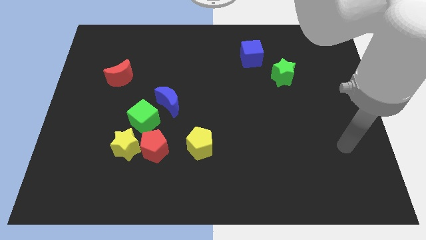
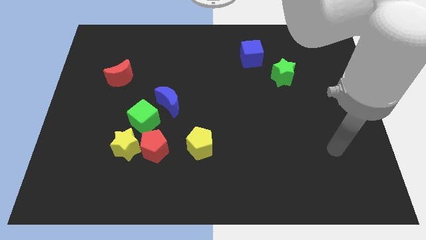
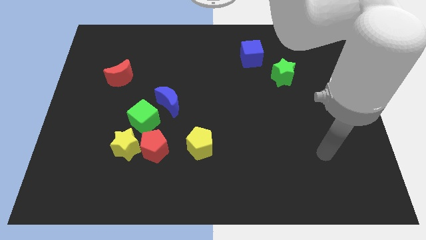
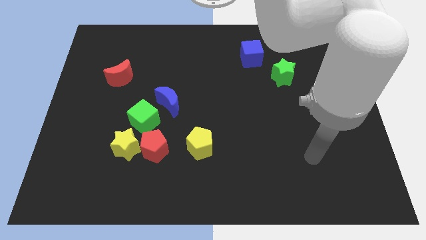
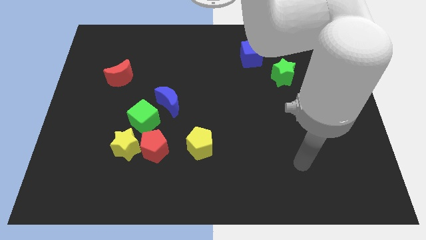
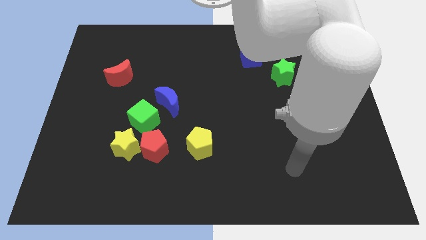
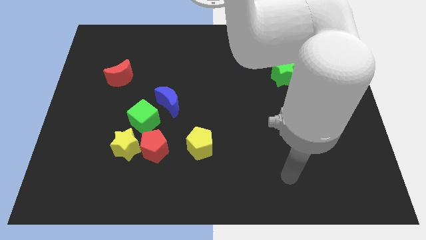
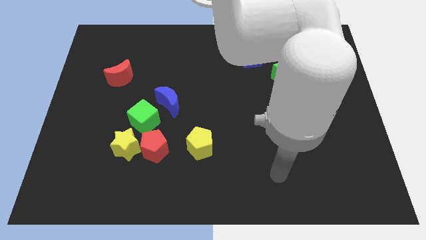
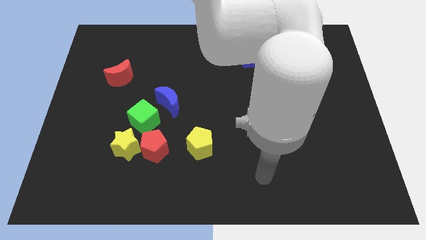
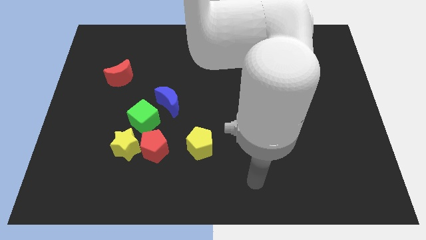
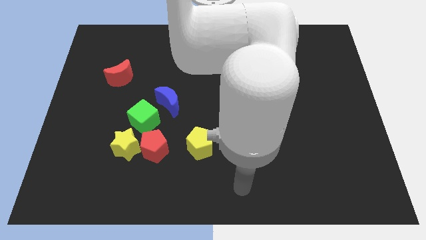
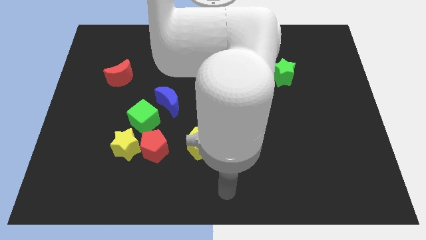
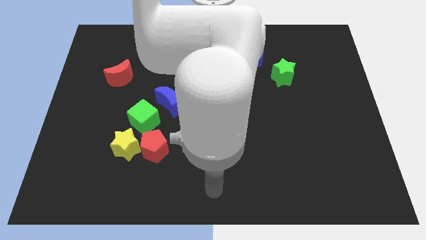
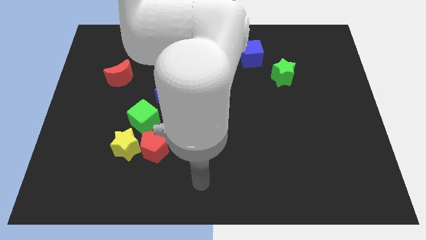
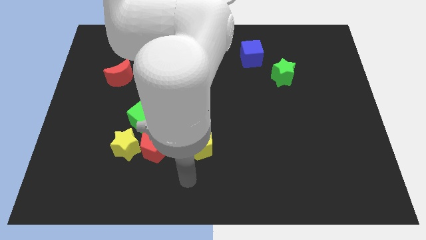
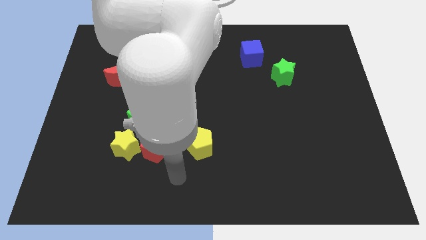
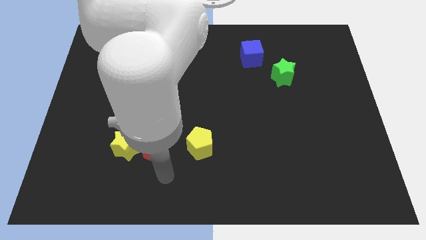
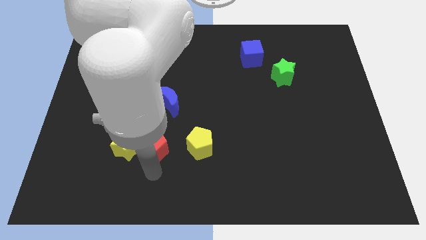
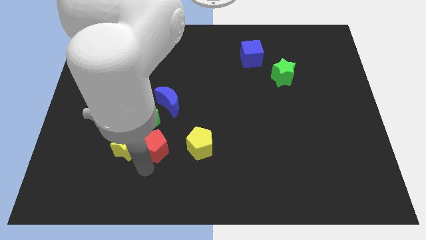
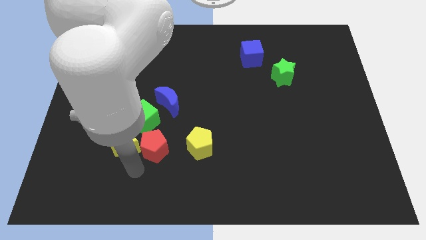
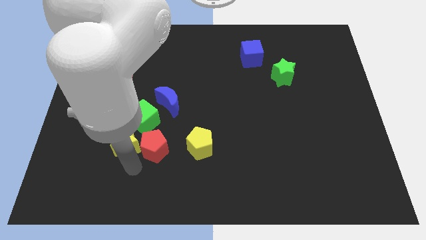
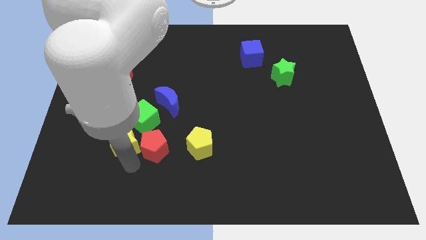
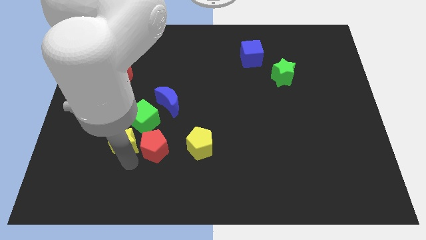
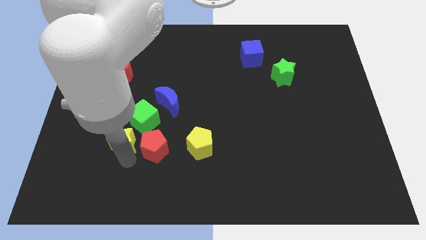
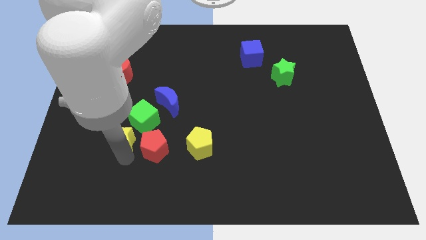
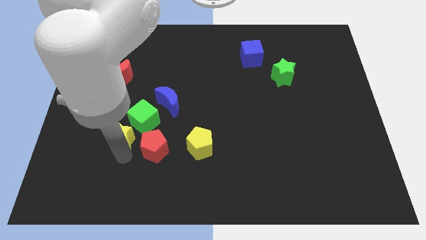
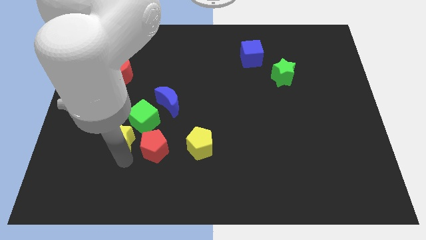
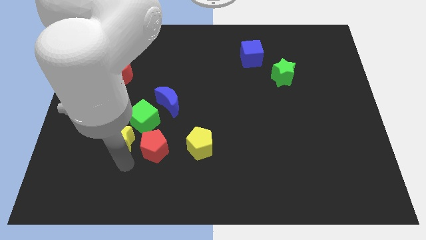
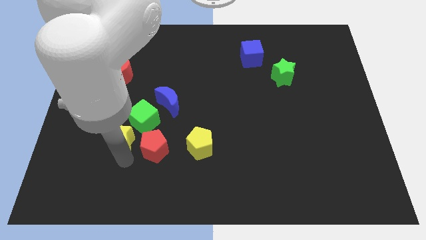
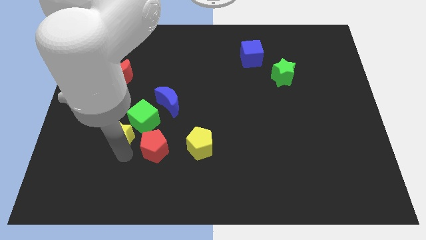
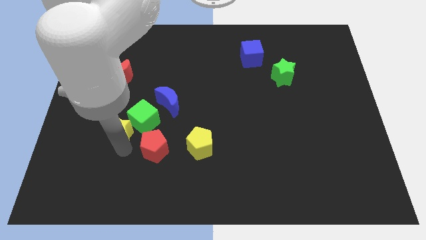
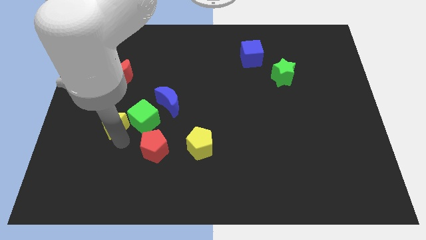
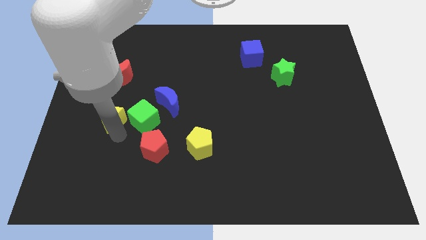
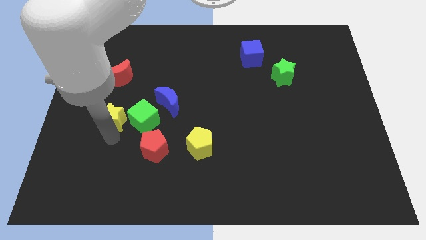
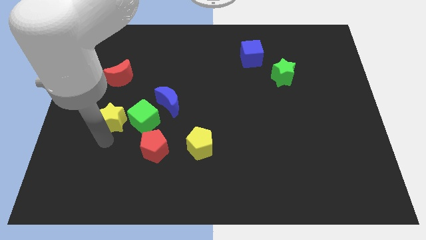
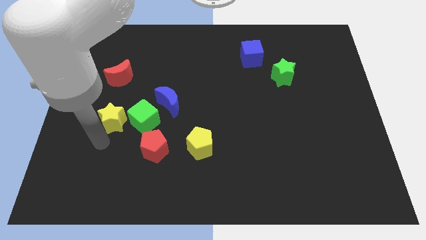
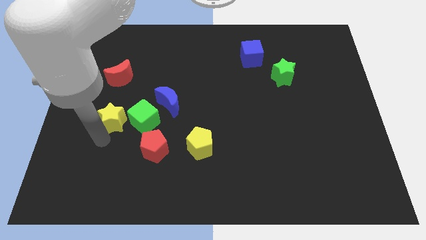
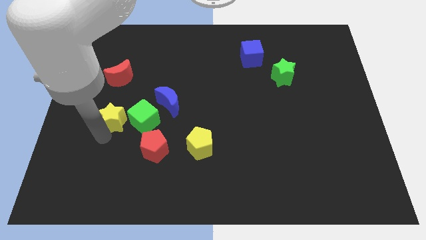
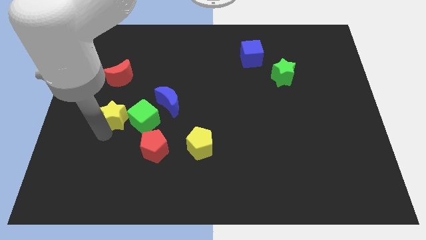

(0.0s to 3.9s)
push the yellow star slightly up

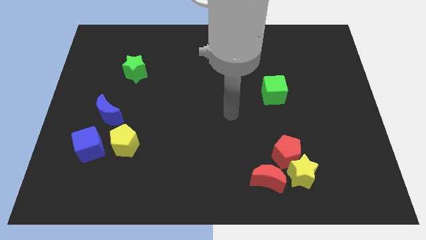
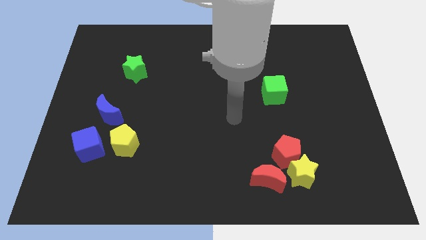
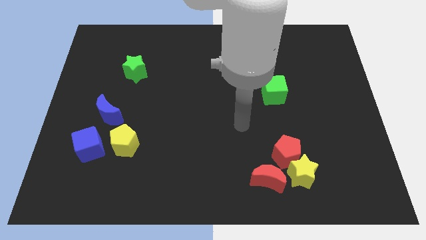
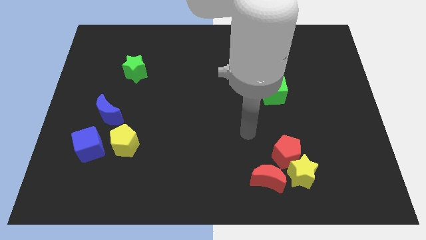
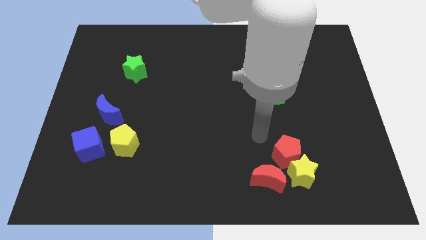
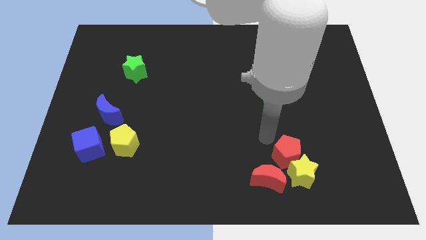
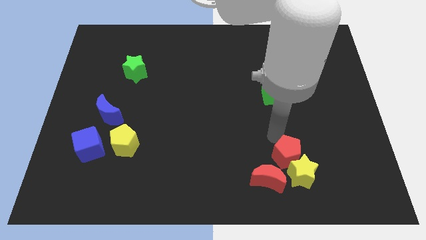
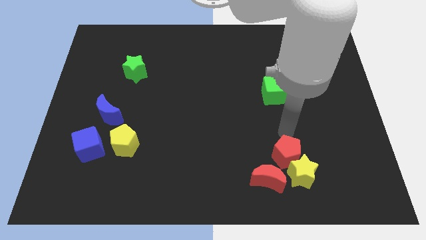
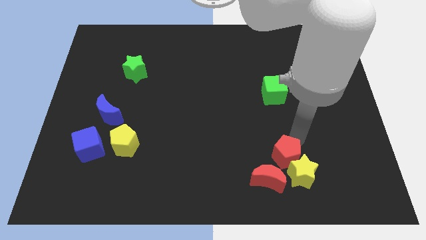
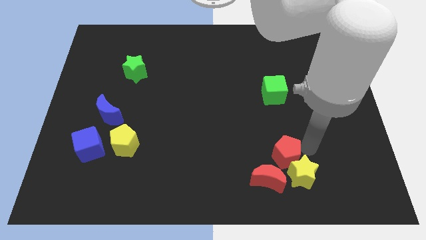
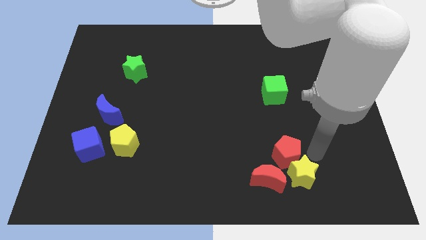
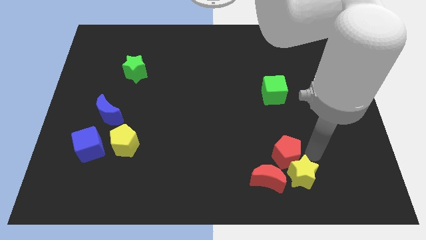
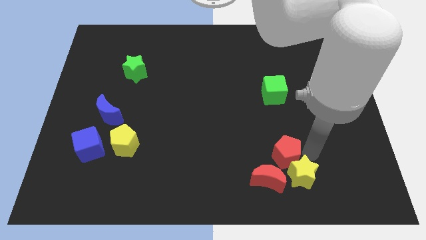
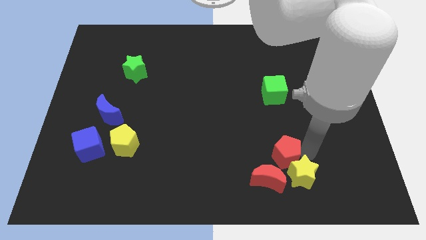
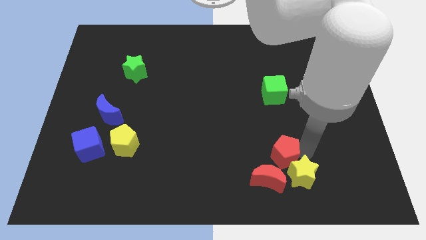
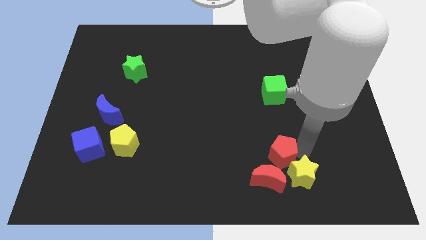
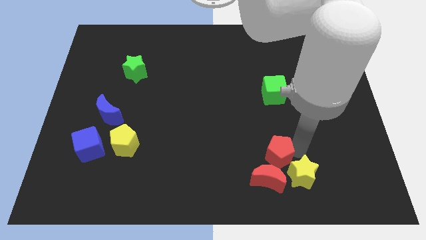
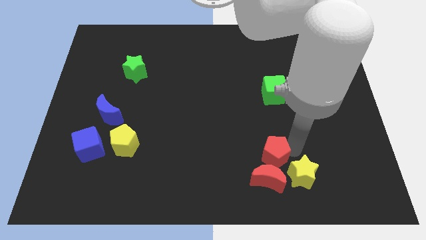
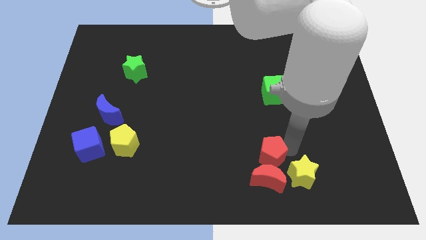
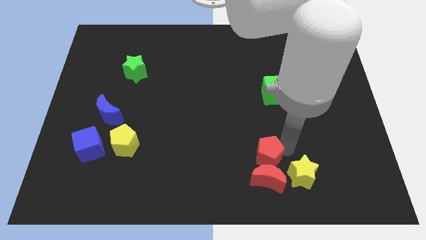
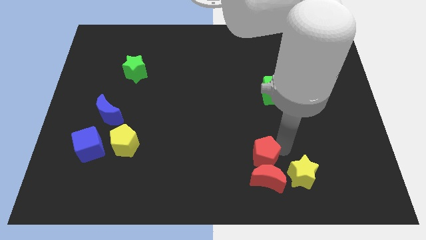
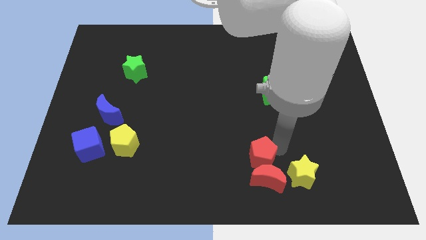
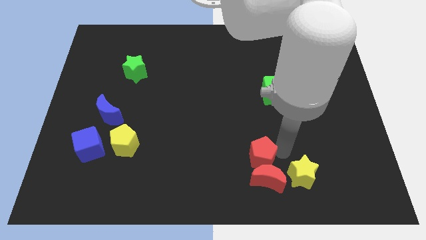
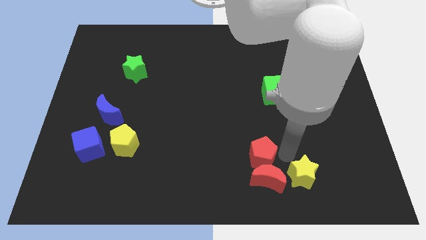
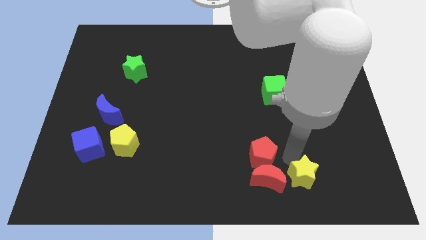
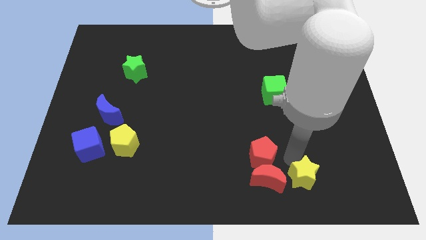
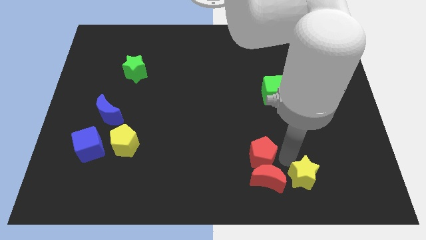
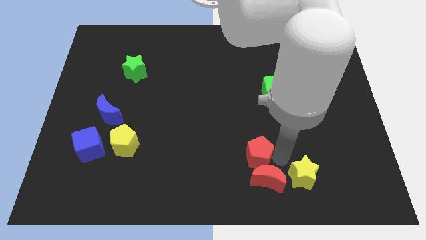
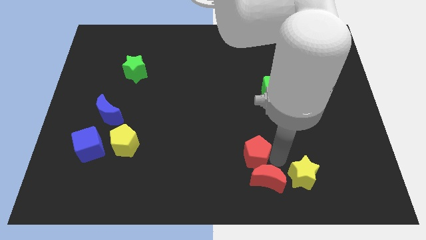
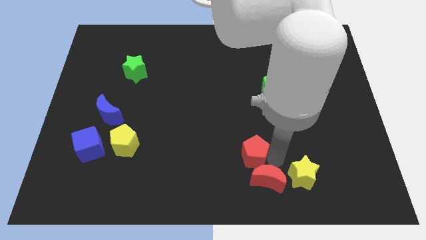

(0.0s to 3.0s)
slightly move the red pentagon to the left

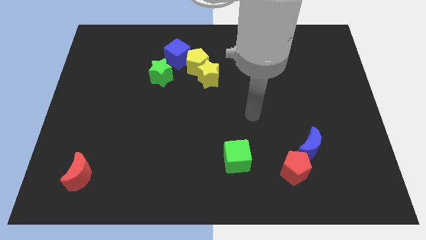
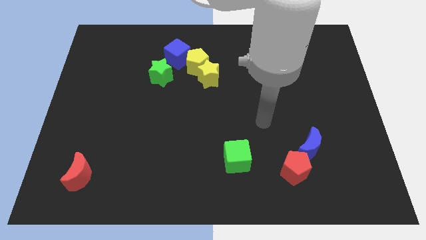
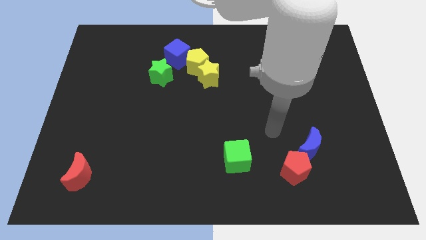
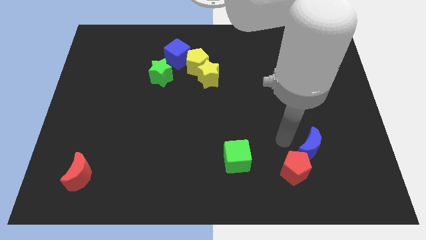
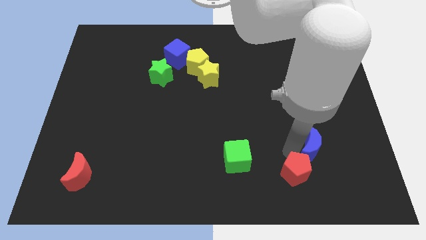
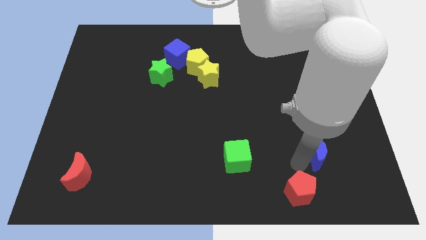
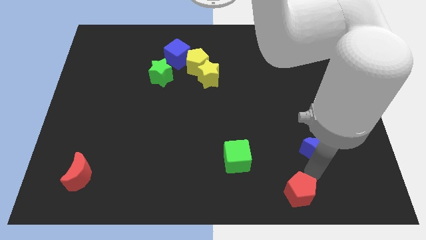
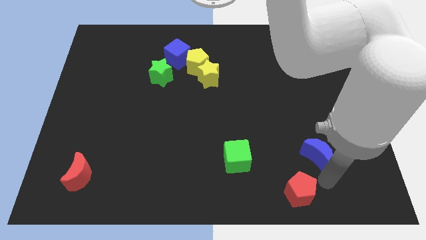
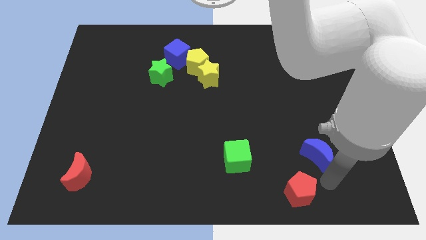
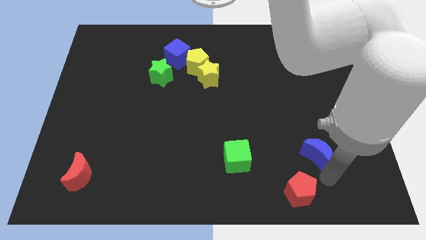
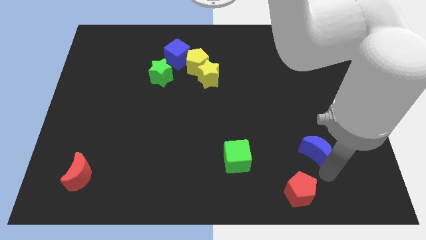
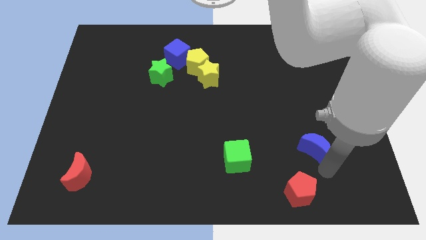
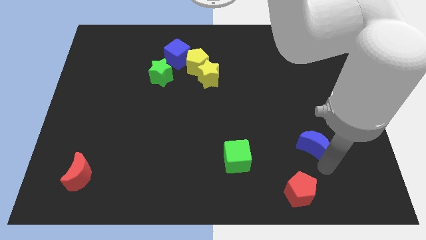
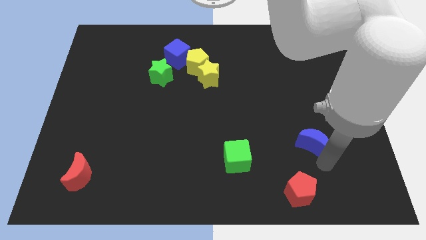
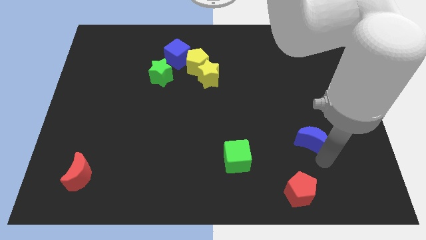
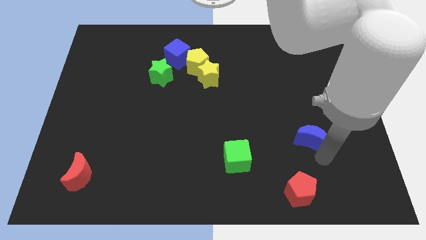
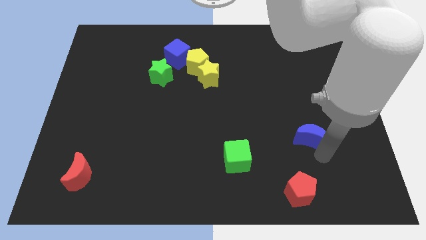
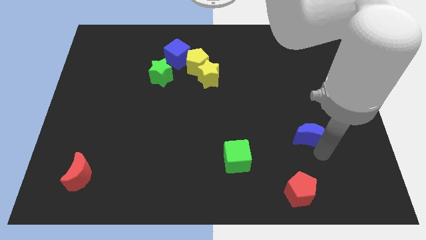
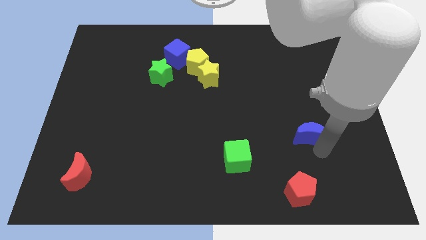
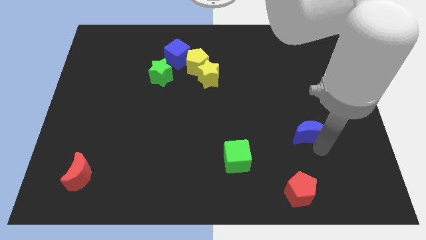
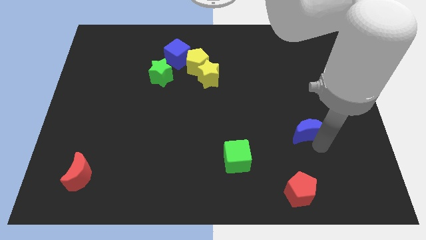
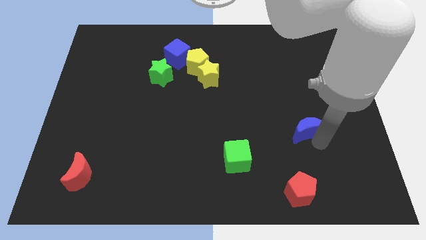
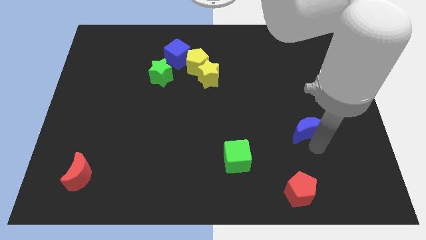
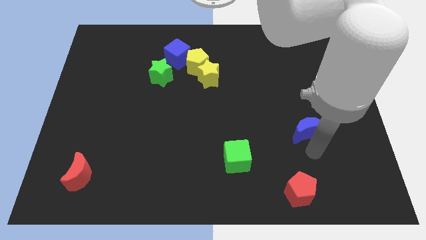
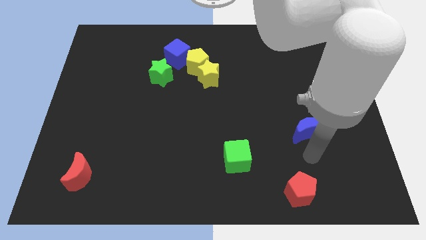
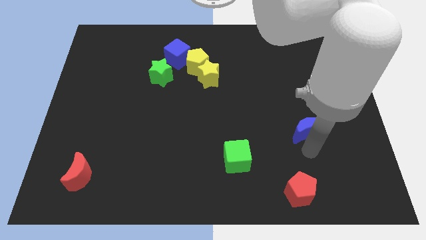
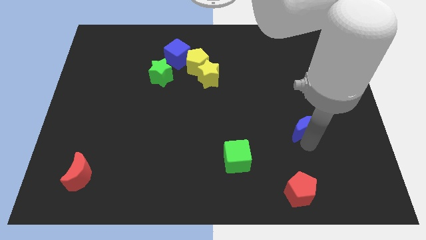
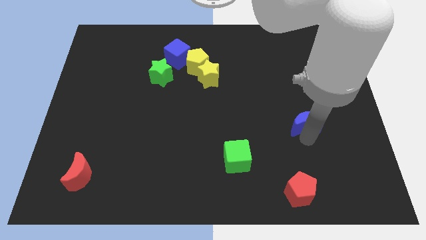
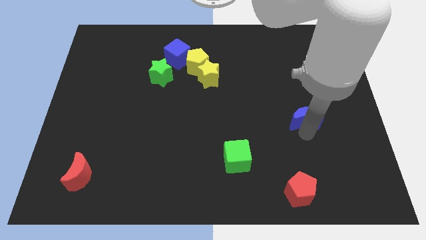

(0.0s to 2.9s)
slightly slide the blue moon up
